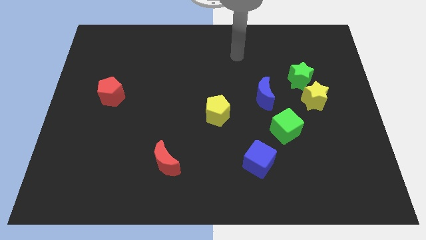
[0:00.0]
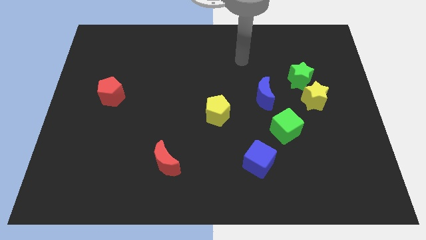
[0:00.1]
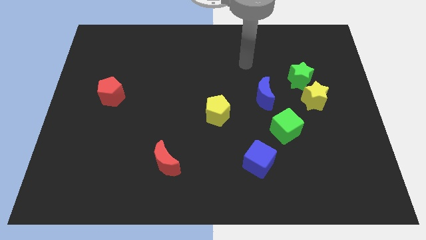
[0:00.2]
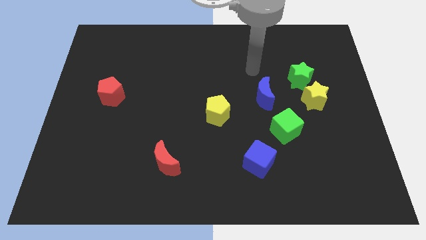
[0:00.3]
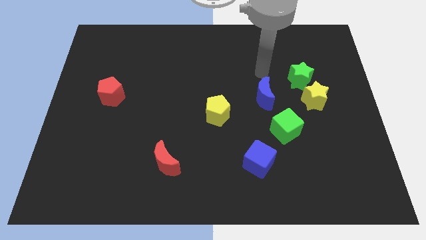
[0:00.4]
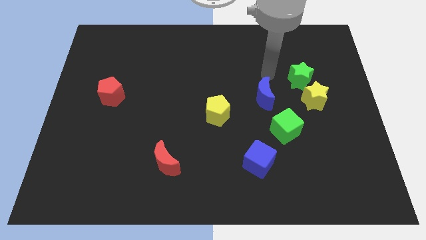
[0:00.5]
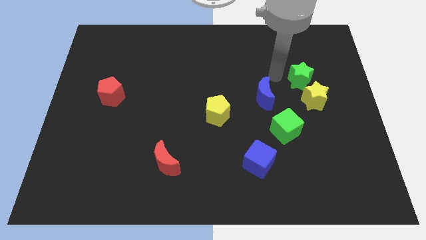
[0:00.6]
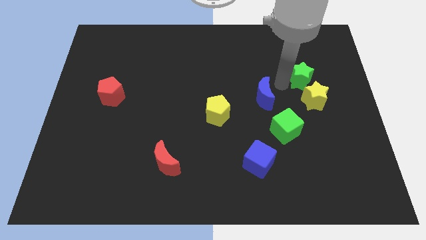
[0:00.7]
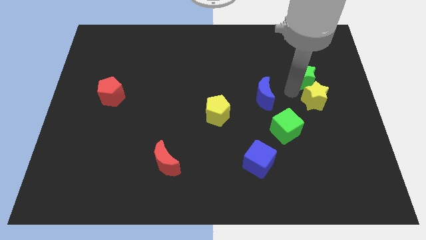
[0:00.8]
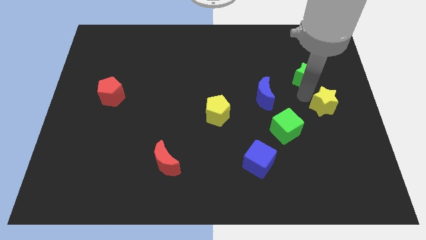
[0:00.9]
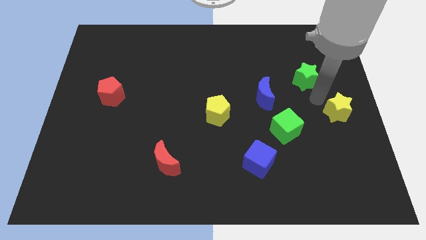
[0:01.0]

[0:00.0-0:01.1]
move the green star away from the yellow star

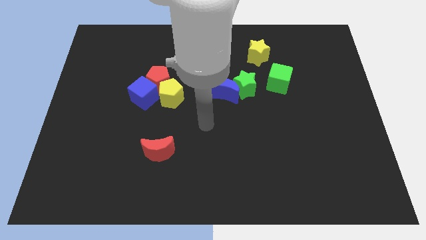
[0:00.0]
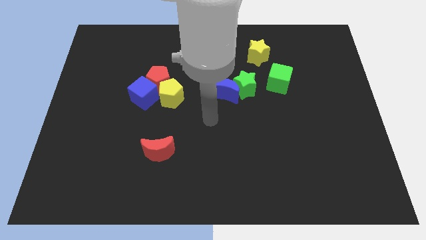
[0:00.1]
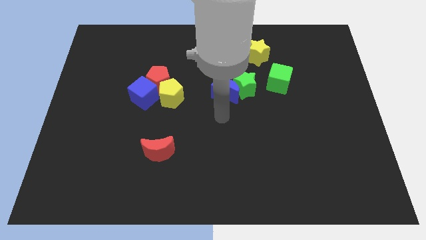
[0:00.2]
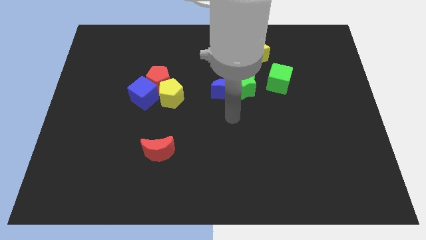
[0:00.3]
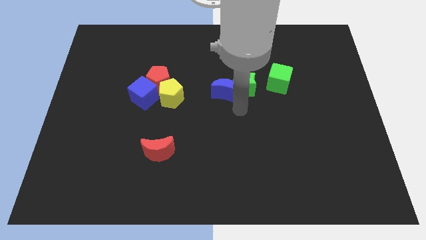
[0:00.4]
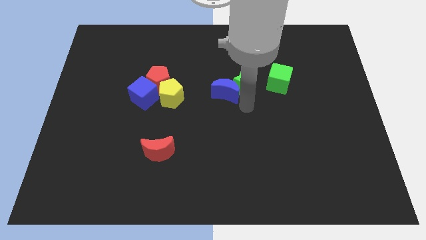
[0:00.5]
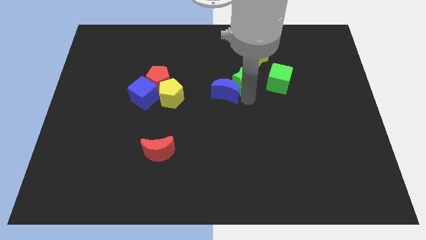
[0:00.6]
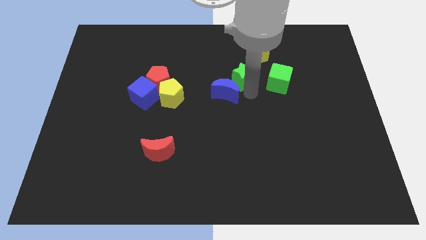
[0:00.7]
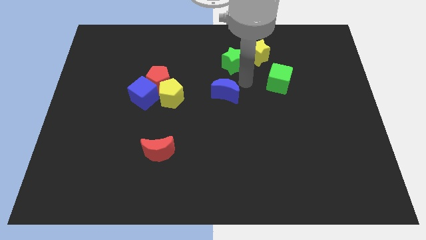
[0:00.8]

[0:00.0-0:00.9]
move the blue moon away from the green star

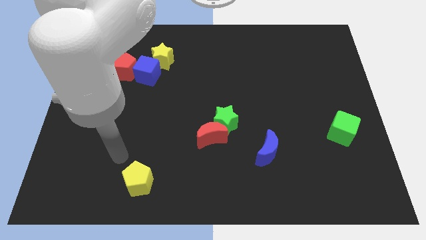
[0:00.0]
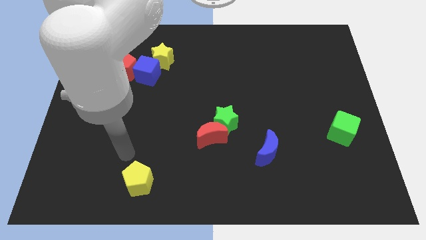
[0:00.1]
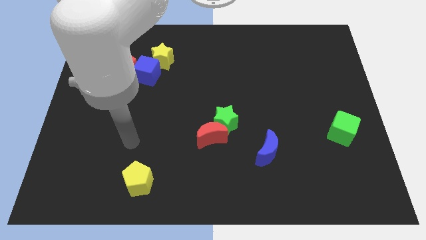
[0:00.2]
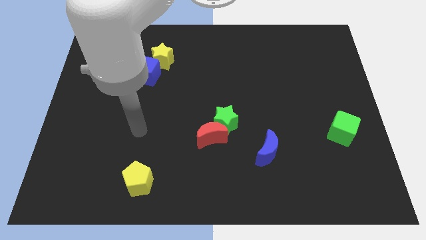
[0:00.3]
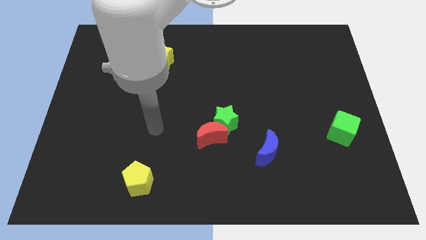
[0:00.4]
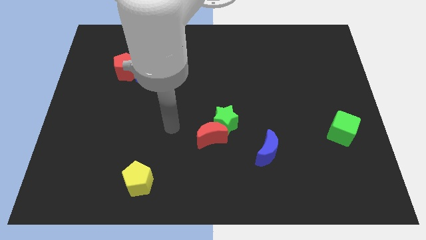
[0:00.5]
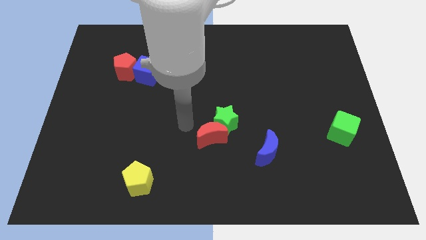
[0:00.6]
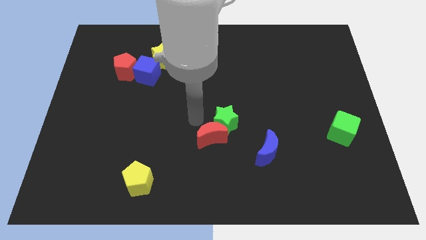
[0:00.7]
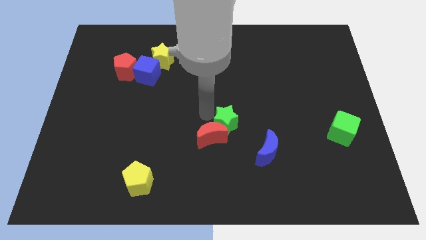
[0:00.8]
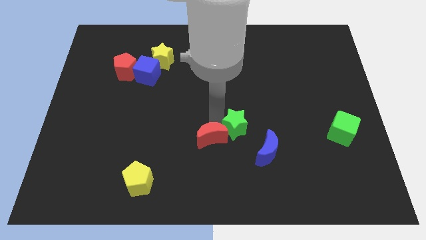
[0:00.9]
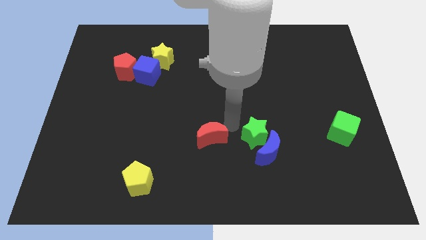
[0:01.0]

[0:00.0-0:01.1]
separate the red moon from the green star

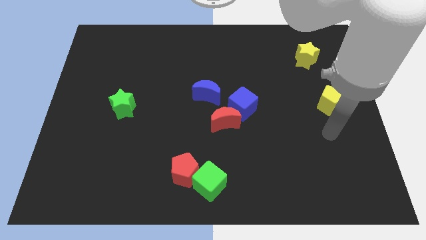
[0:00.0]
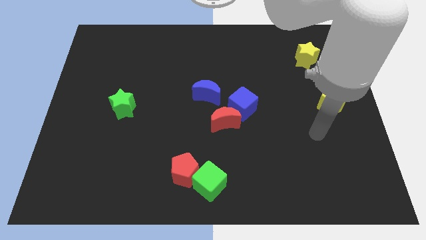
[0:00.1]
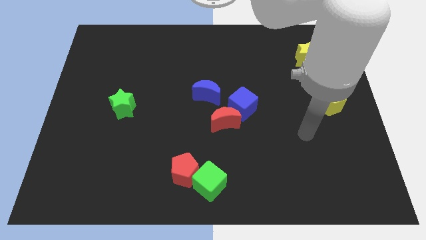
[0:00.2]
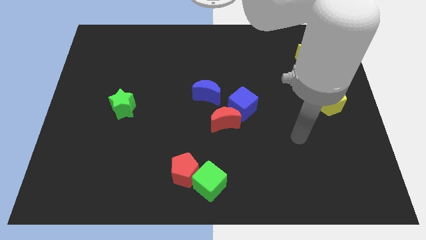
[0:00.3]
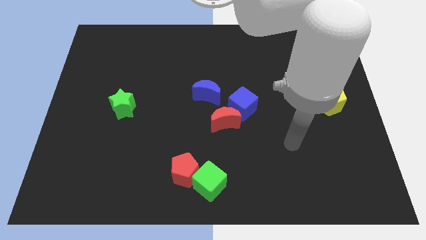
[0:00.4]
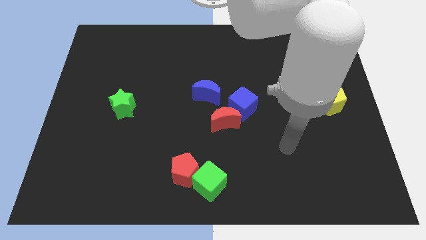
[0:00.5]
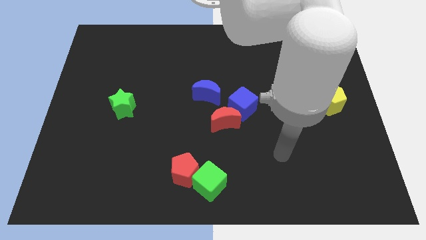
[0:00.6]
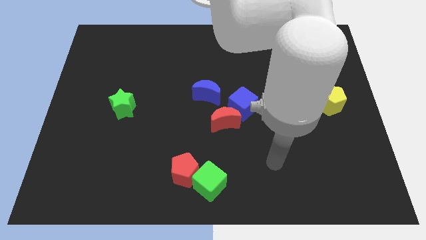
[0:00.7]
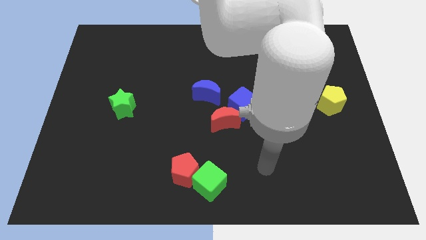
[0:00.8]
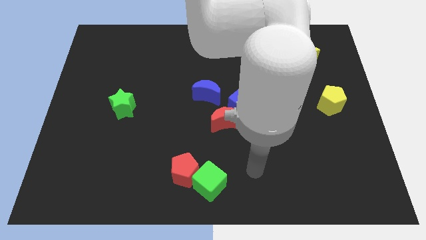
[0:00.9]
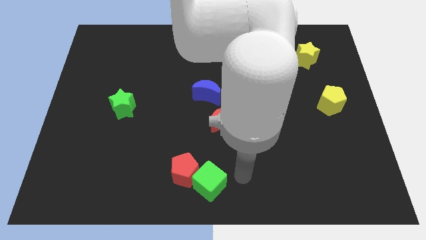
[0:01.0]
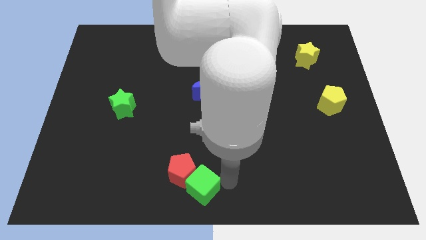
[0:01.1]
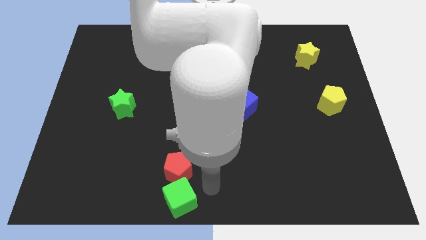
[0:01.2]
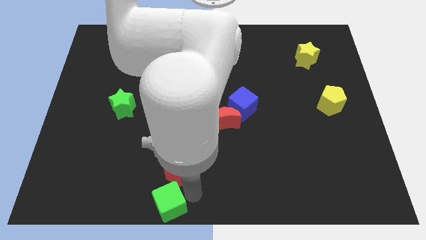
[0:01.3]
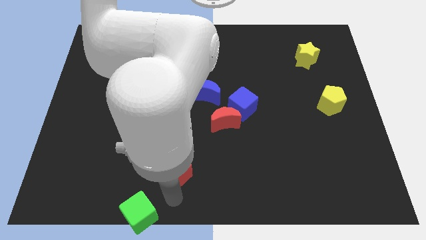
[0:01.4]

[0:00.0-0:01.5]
pull the red pentagon apart from the green cube

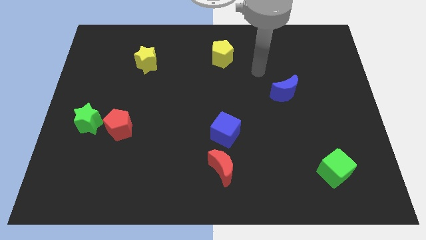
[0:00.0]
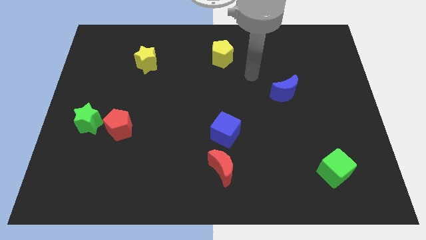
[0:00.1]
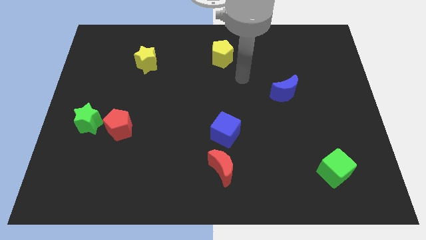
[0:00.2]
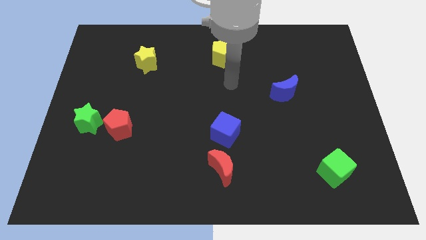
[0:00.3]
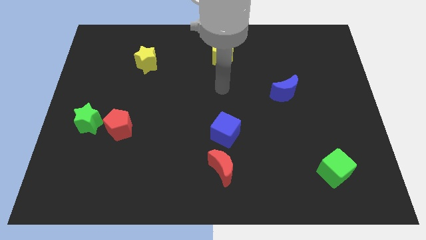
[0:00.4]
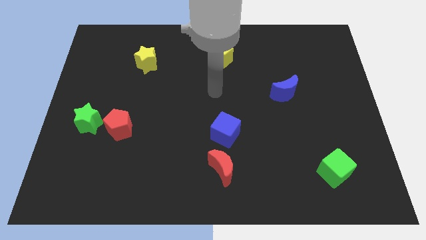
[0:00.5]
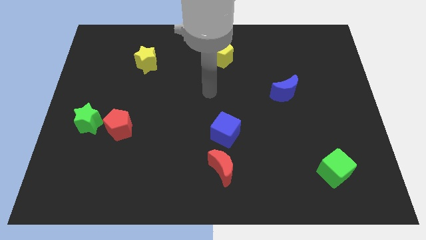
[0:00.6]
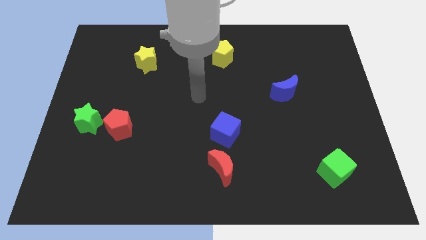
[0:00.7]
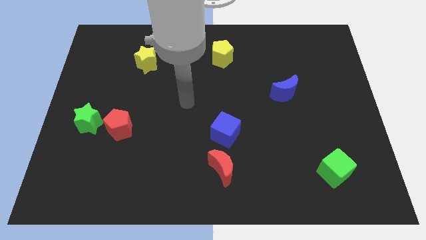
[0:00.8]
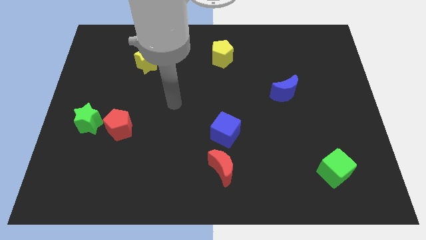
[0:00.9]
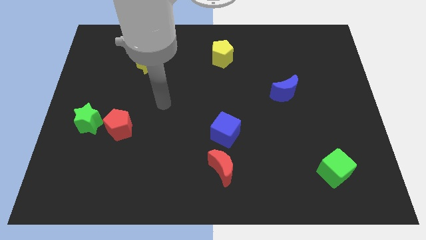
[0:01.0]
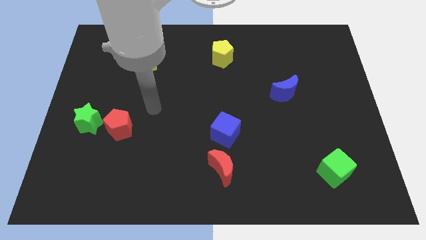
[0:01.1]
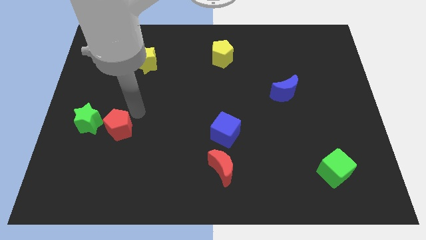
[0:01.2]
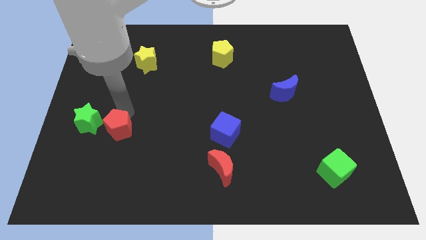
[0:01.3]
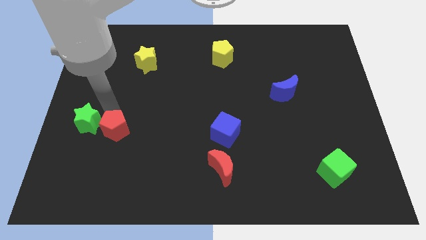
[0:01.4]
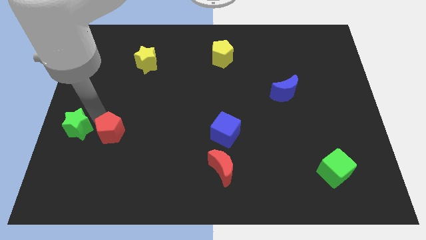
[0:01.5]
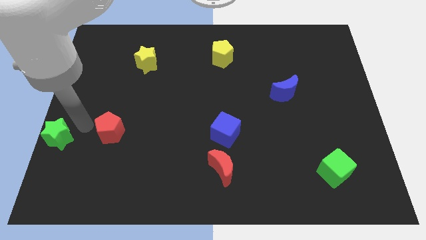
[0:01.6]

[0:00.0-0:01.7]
separate the red pentagon from the green star

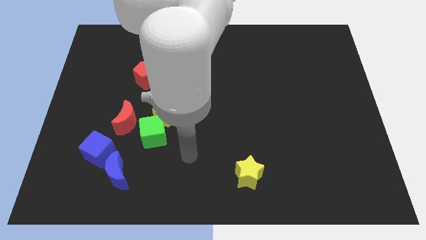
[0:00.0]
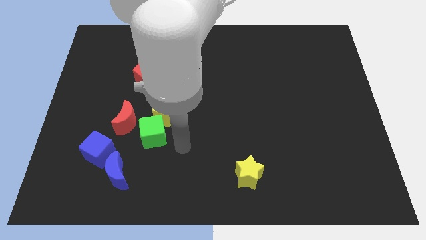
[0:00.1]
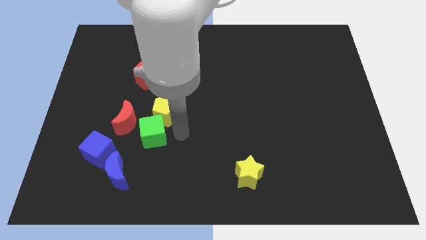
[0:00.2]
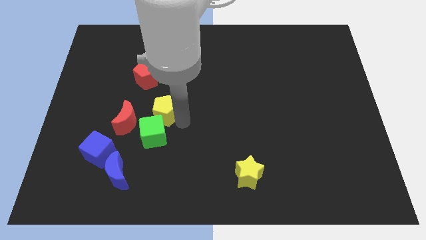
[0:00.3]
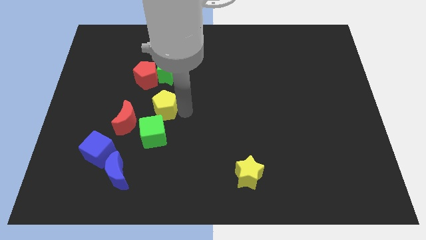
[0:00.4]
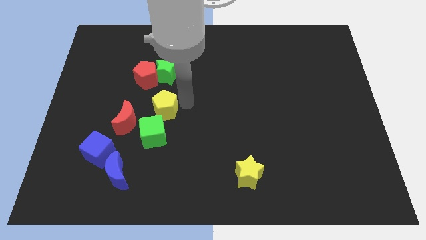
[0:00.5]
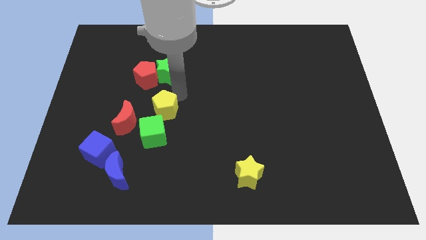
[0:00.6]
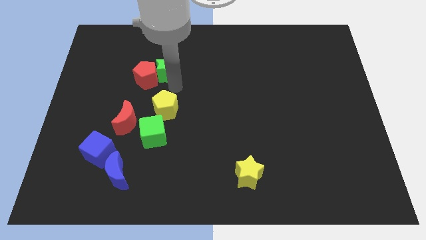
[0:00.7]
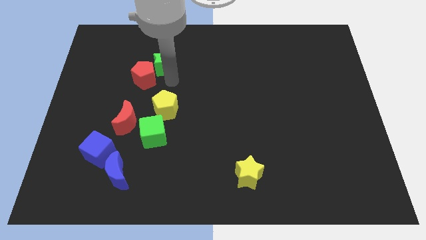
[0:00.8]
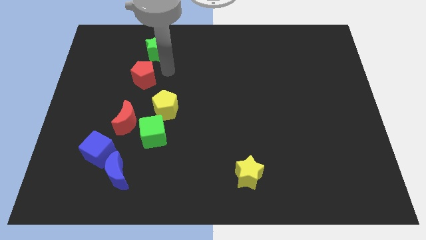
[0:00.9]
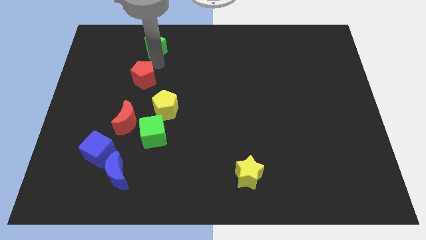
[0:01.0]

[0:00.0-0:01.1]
pull the red pentagon apart from the green star

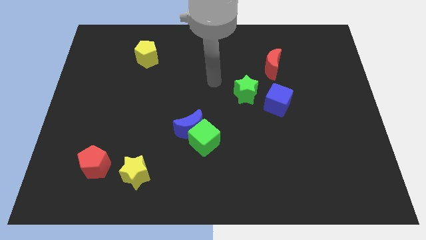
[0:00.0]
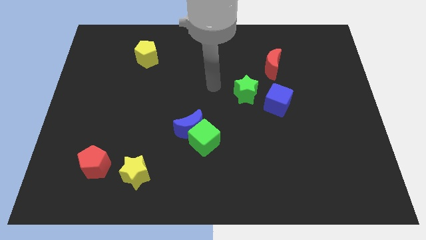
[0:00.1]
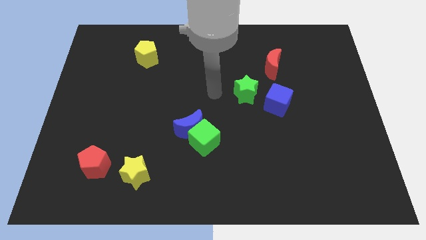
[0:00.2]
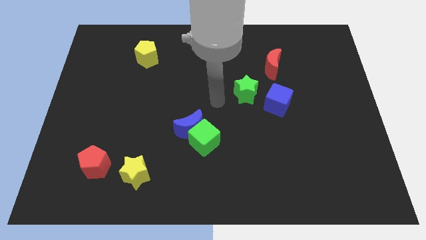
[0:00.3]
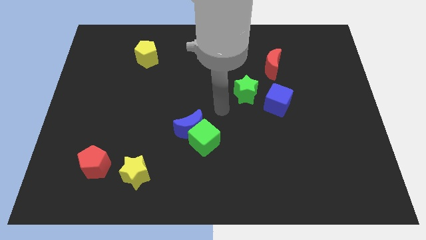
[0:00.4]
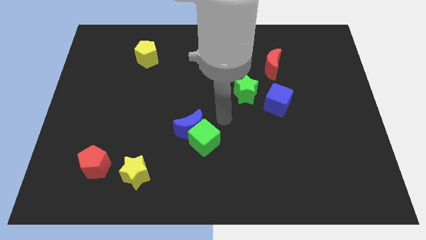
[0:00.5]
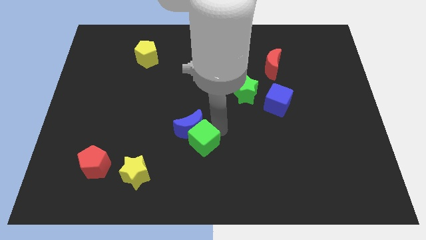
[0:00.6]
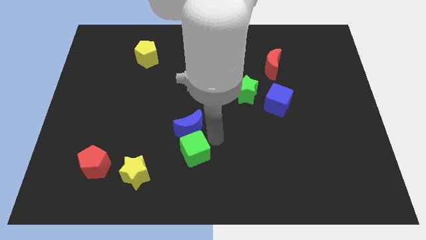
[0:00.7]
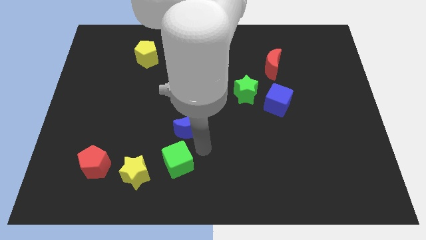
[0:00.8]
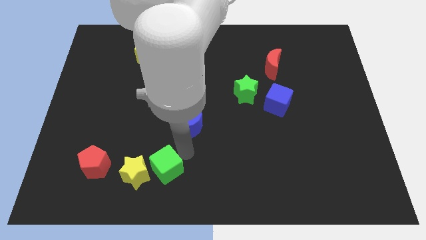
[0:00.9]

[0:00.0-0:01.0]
separate the blue moon from the green cube

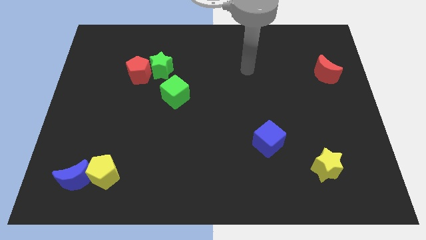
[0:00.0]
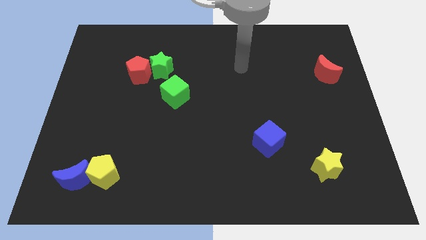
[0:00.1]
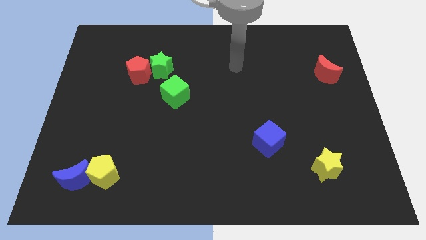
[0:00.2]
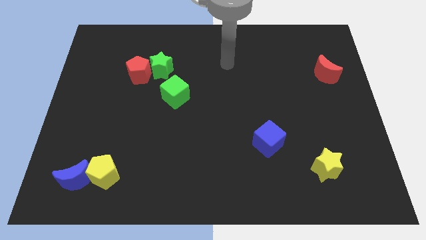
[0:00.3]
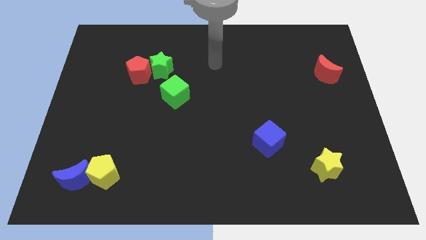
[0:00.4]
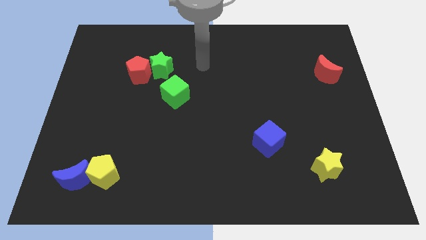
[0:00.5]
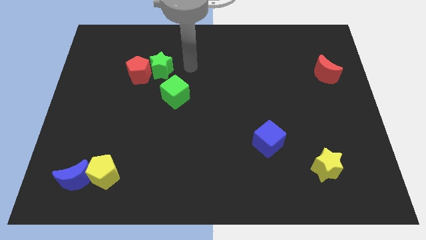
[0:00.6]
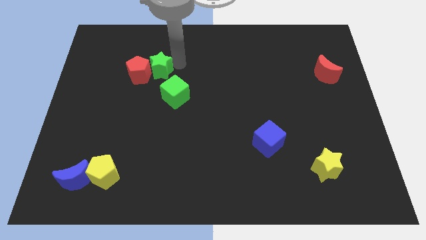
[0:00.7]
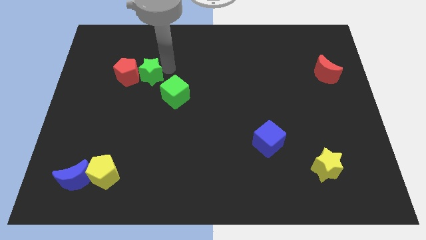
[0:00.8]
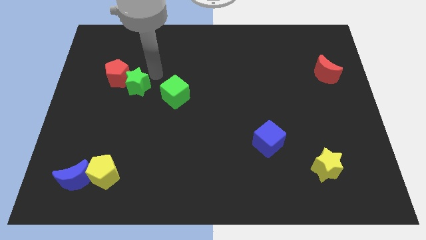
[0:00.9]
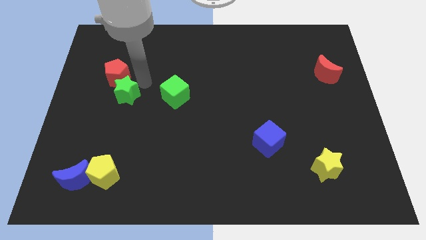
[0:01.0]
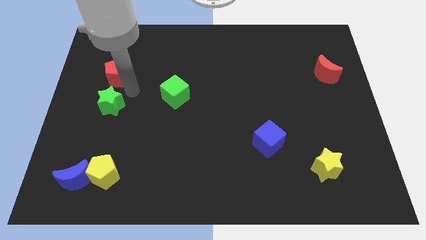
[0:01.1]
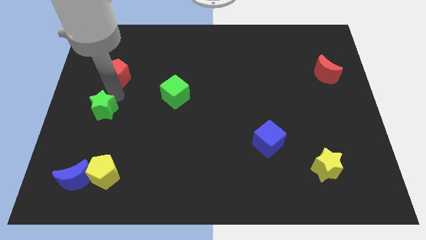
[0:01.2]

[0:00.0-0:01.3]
move the red pentagon away from the green star
